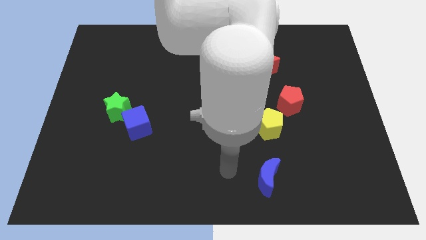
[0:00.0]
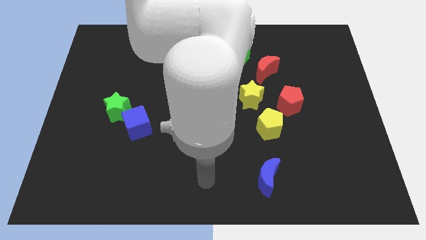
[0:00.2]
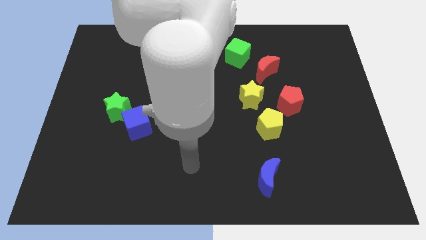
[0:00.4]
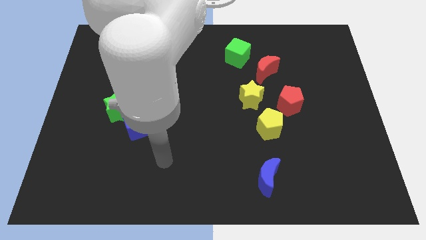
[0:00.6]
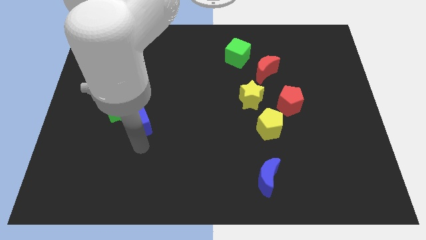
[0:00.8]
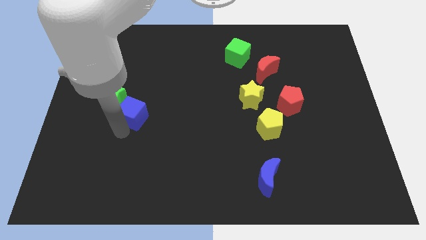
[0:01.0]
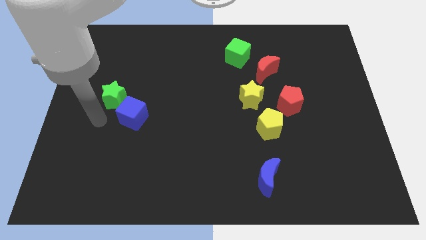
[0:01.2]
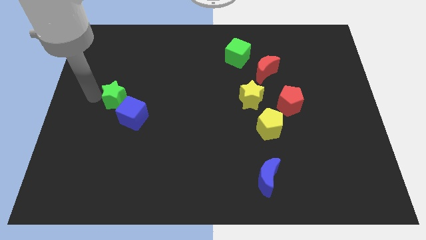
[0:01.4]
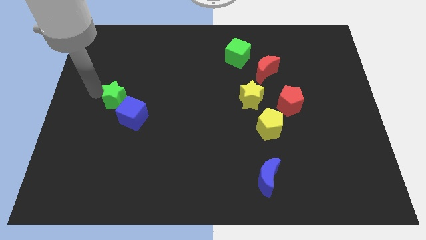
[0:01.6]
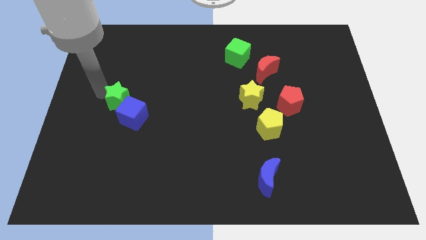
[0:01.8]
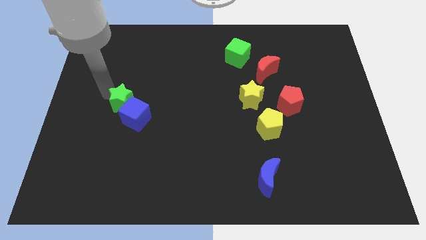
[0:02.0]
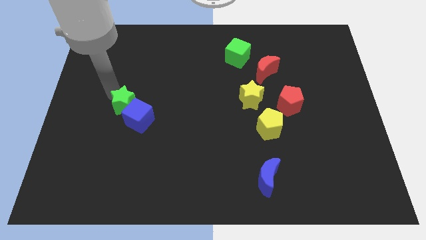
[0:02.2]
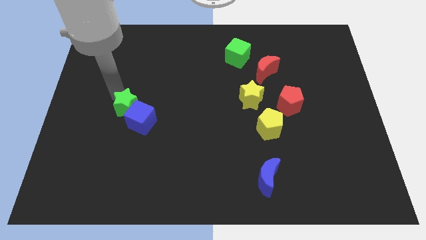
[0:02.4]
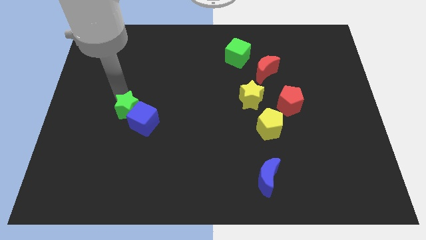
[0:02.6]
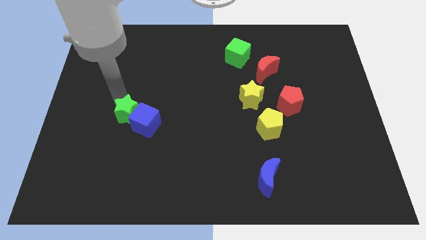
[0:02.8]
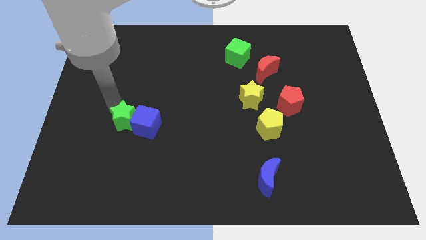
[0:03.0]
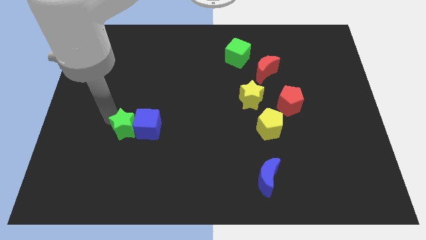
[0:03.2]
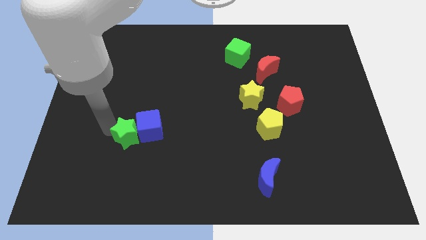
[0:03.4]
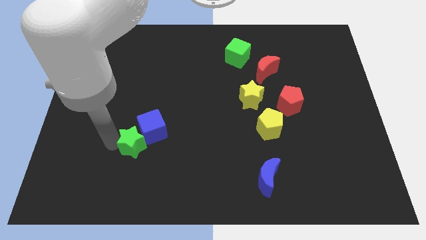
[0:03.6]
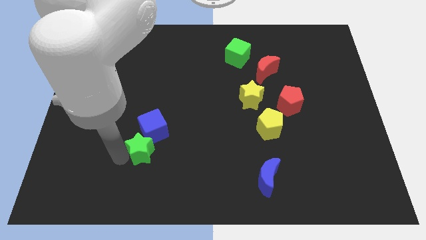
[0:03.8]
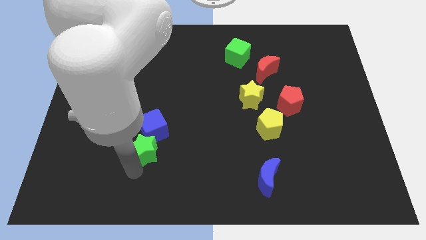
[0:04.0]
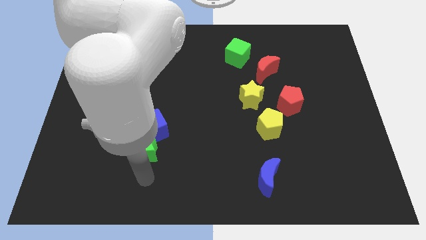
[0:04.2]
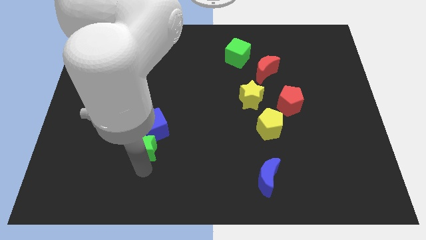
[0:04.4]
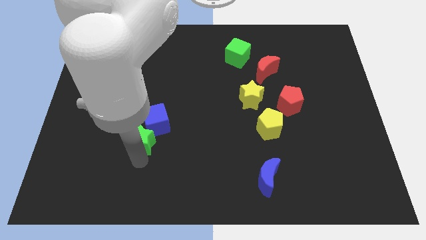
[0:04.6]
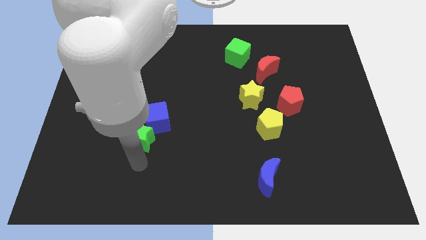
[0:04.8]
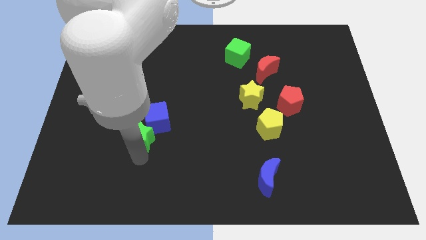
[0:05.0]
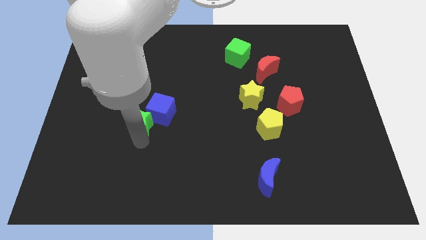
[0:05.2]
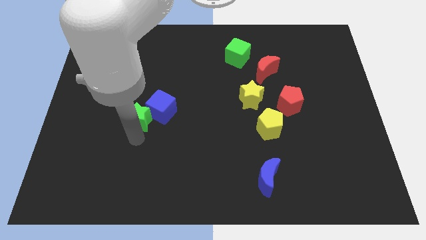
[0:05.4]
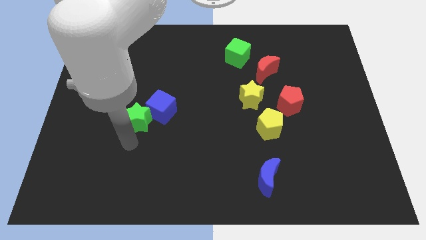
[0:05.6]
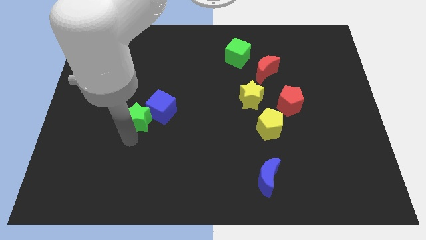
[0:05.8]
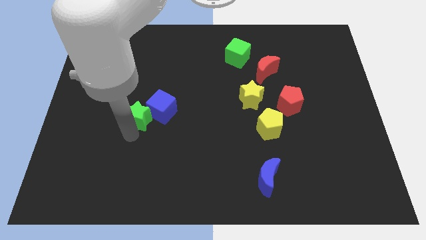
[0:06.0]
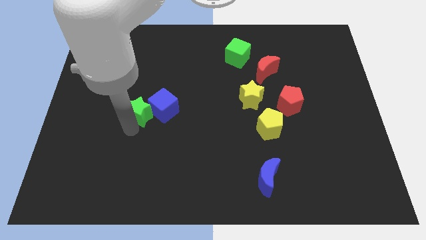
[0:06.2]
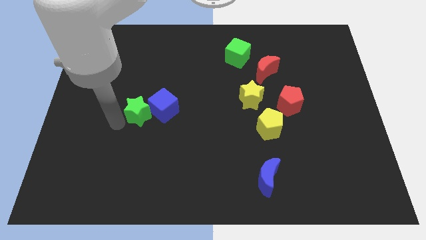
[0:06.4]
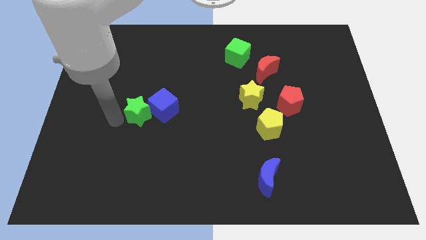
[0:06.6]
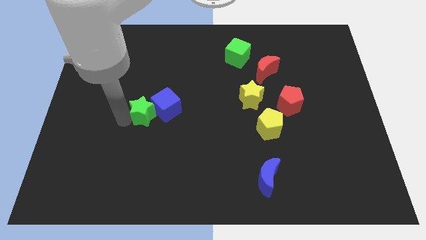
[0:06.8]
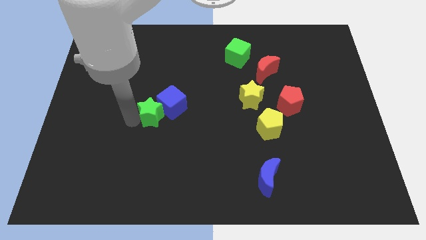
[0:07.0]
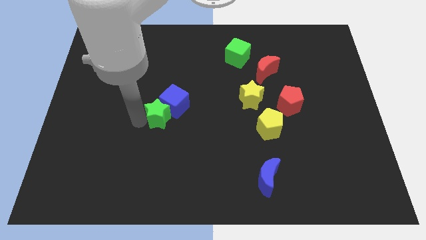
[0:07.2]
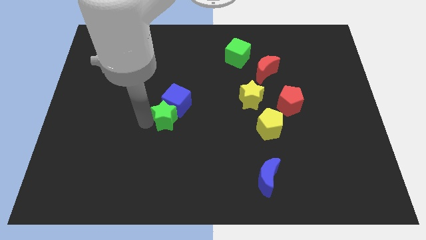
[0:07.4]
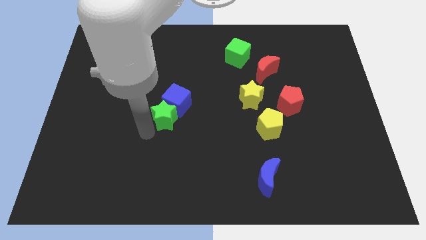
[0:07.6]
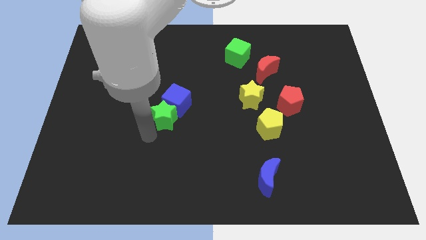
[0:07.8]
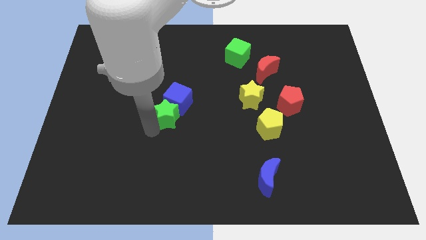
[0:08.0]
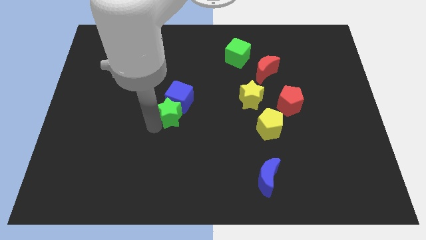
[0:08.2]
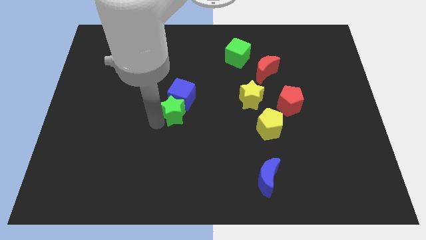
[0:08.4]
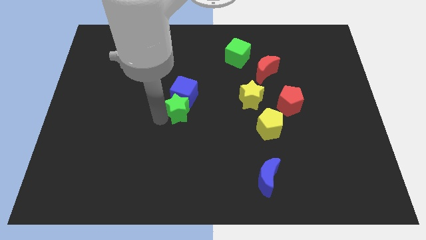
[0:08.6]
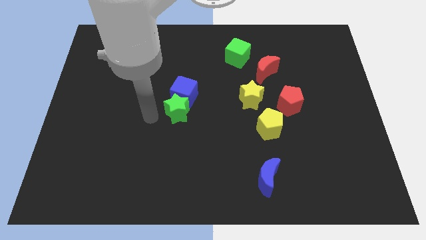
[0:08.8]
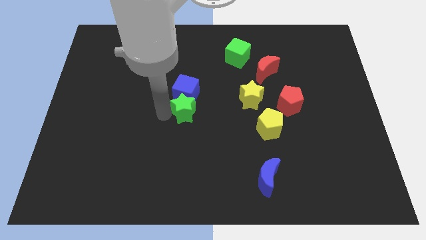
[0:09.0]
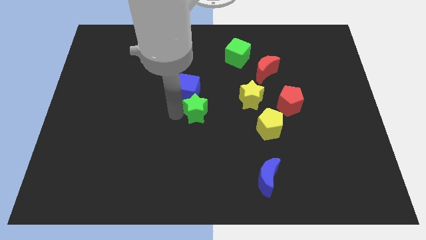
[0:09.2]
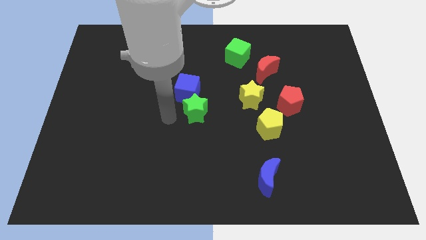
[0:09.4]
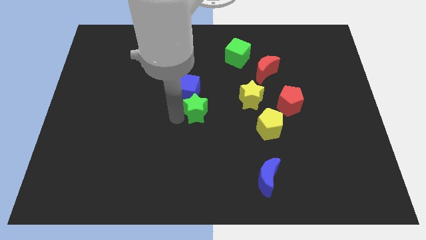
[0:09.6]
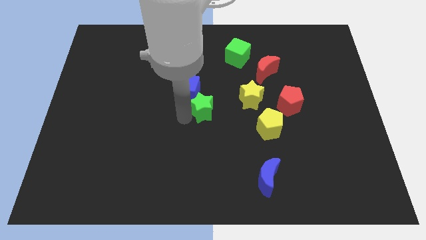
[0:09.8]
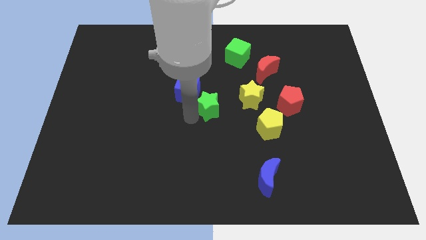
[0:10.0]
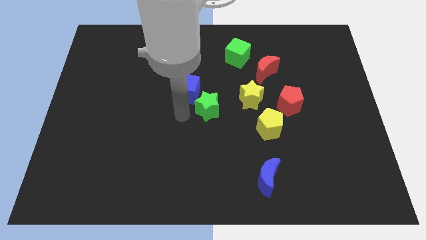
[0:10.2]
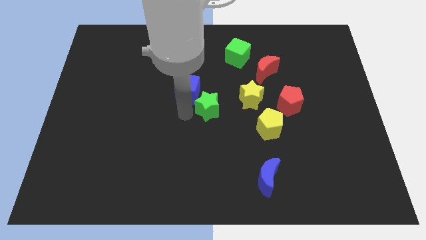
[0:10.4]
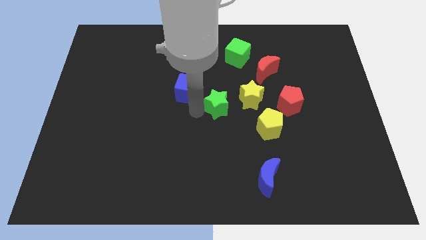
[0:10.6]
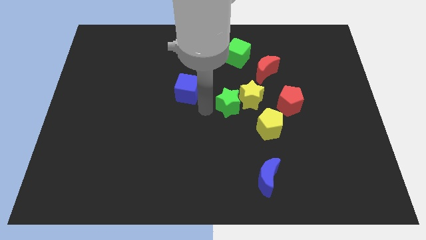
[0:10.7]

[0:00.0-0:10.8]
push the green star close to the yellow star

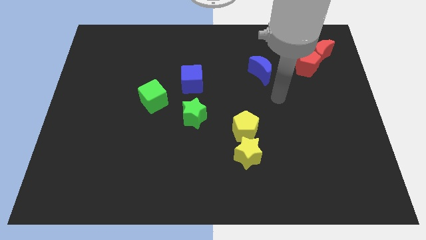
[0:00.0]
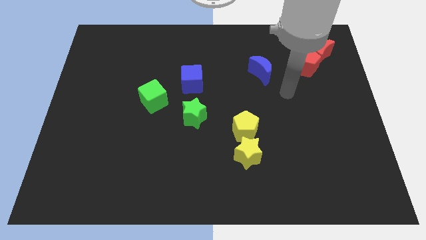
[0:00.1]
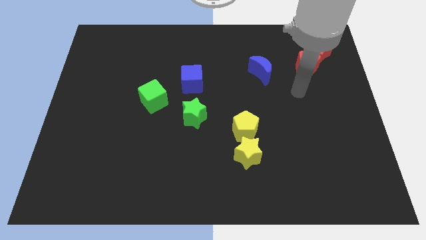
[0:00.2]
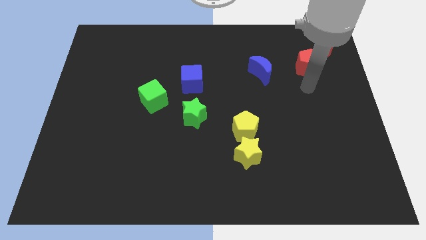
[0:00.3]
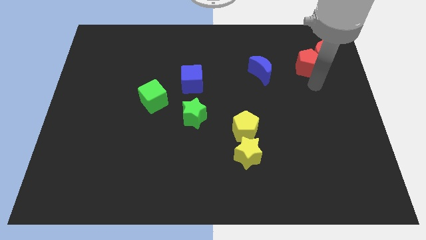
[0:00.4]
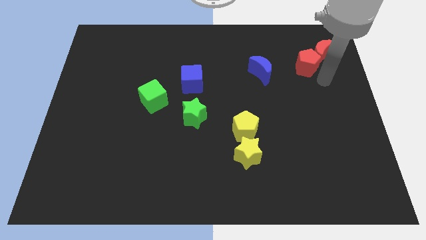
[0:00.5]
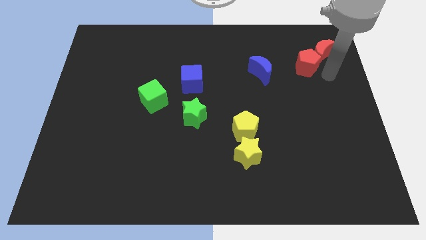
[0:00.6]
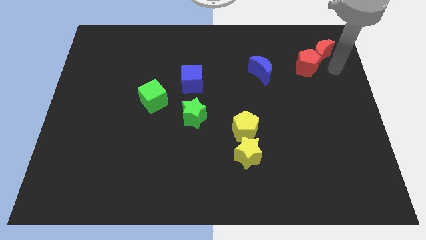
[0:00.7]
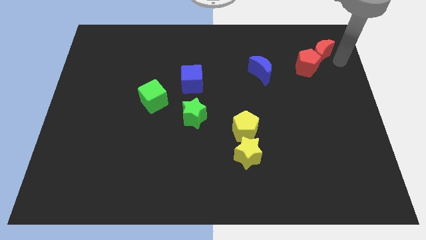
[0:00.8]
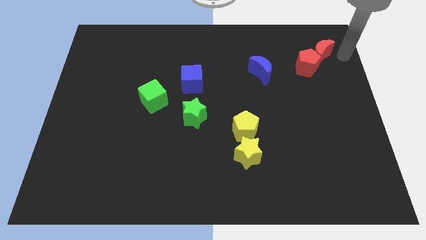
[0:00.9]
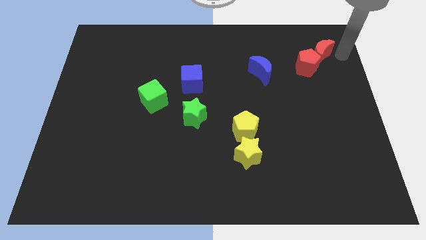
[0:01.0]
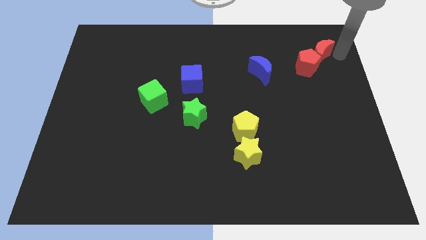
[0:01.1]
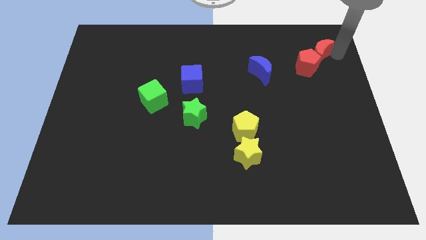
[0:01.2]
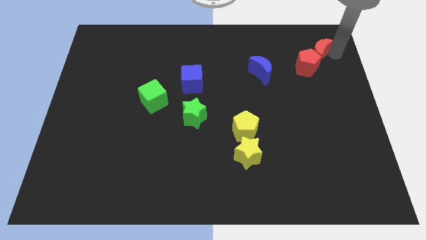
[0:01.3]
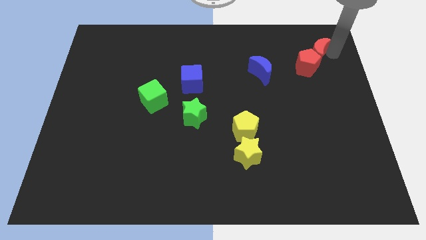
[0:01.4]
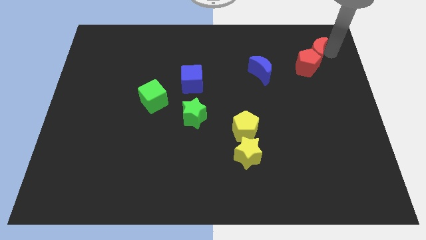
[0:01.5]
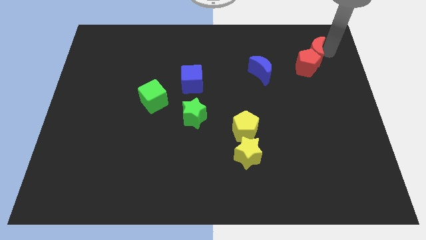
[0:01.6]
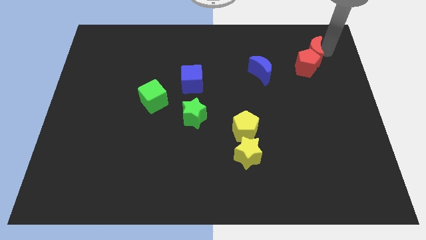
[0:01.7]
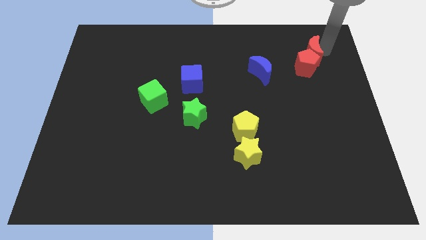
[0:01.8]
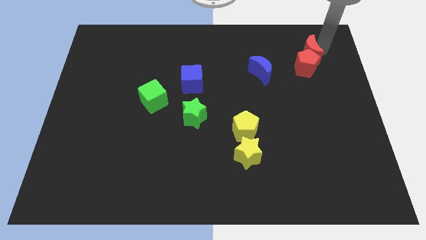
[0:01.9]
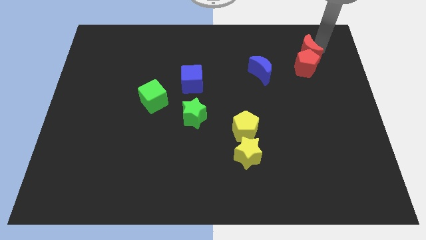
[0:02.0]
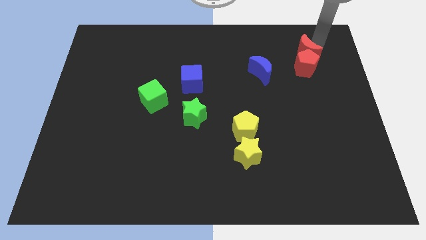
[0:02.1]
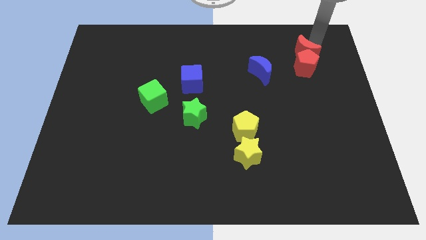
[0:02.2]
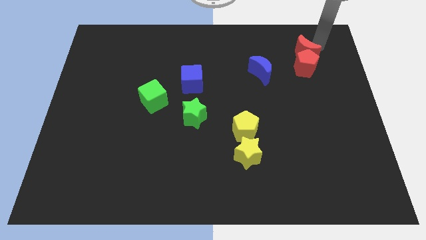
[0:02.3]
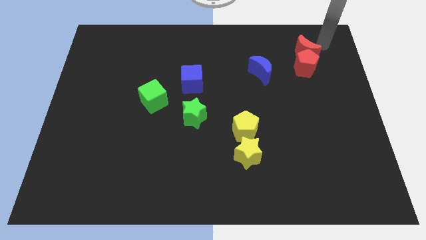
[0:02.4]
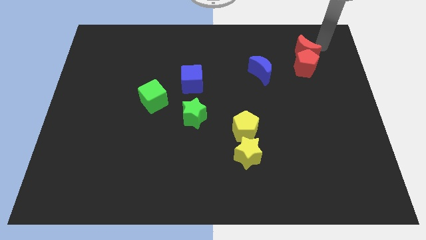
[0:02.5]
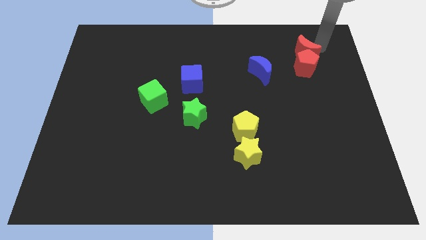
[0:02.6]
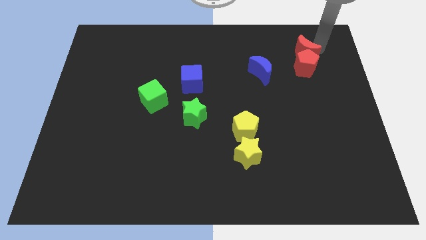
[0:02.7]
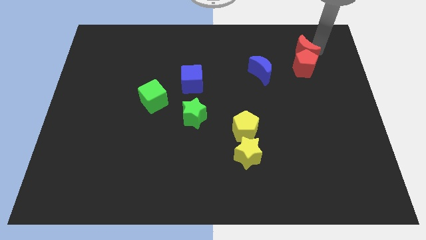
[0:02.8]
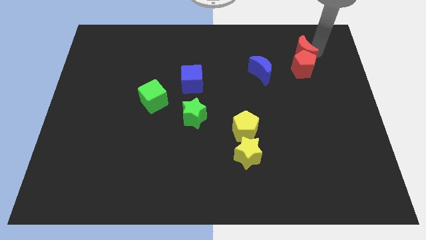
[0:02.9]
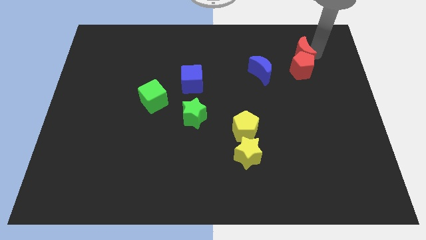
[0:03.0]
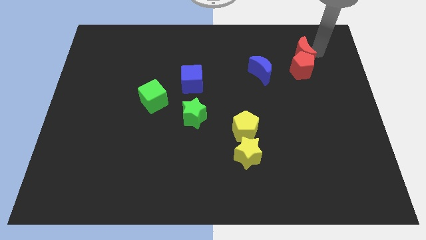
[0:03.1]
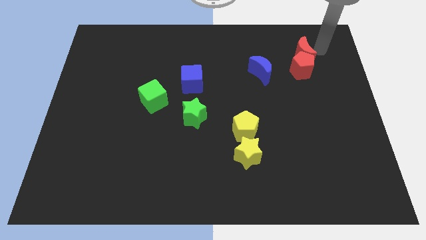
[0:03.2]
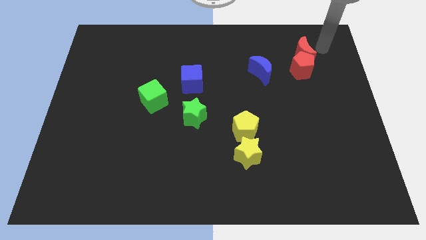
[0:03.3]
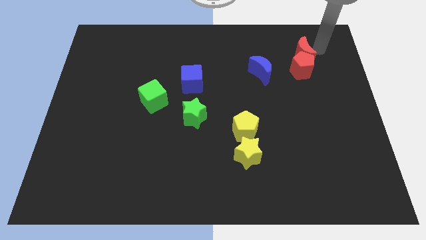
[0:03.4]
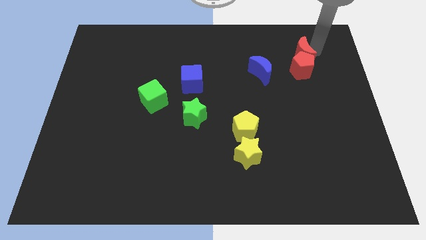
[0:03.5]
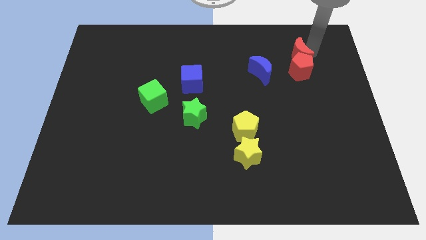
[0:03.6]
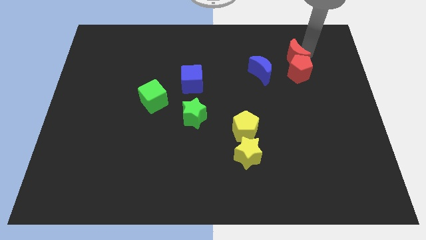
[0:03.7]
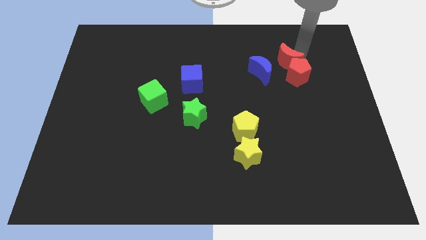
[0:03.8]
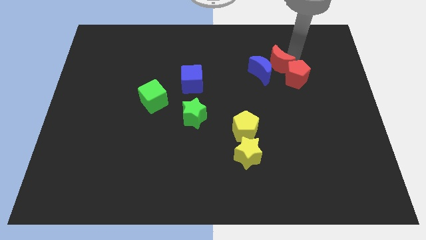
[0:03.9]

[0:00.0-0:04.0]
slide the red moon next to the blue moon
